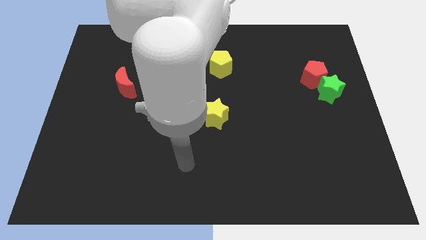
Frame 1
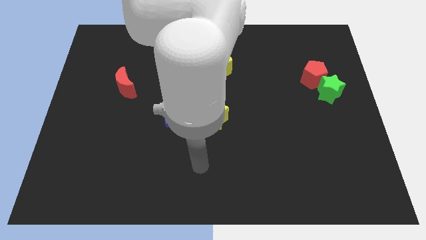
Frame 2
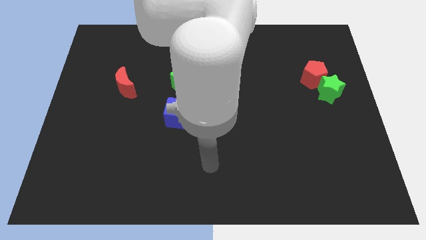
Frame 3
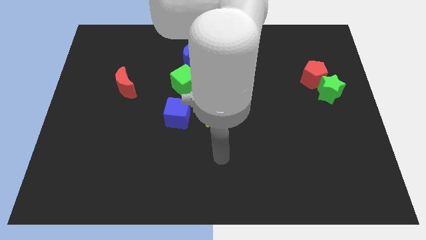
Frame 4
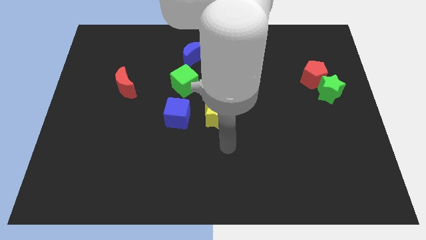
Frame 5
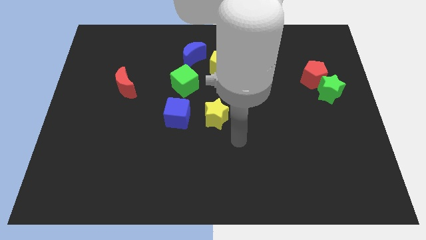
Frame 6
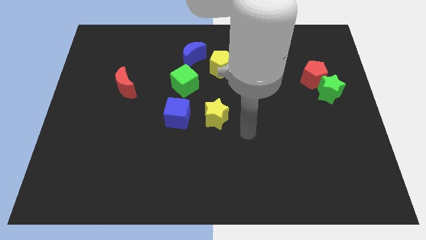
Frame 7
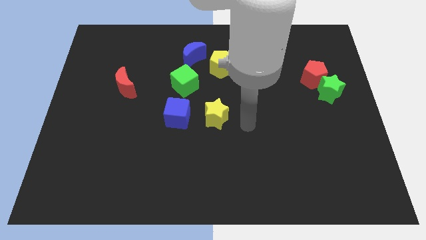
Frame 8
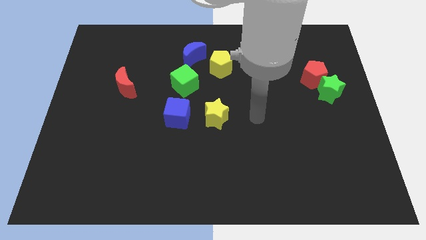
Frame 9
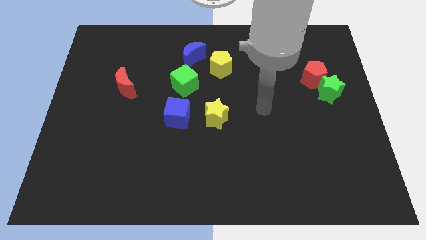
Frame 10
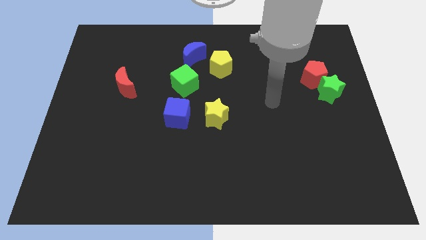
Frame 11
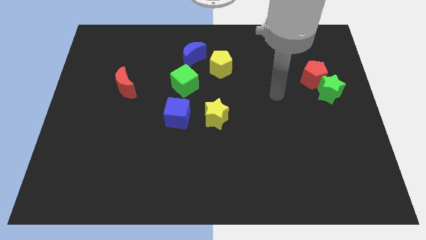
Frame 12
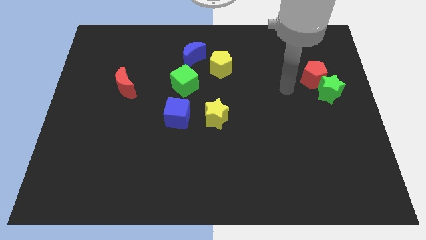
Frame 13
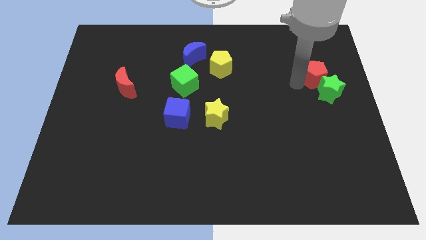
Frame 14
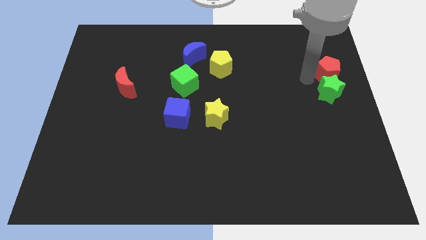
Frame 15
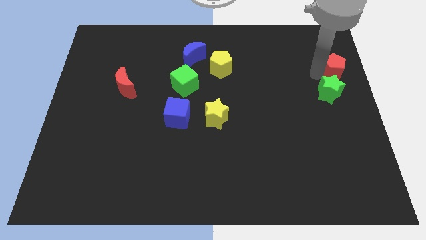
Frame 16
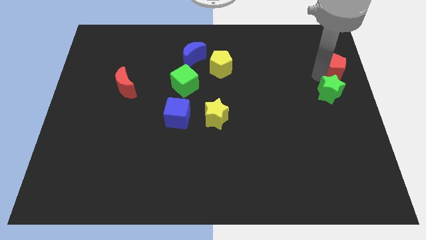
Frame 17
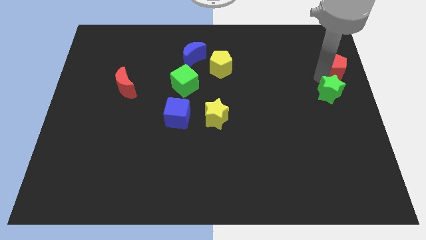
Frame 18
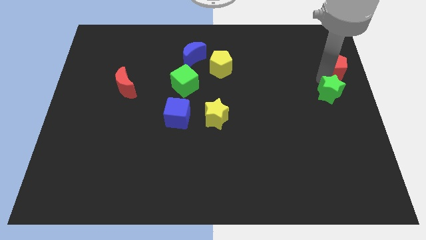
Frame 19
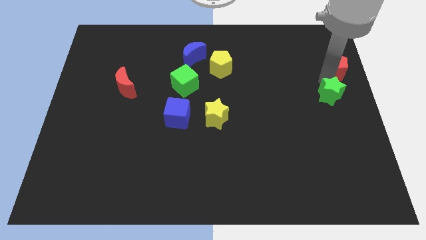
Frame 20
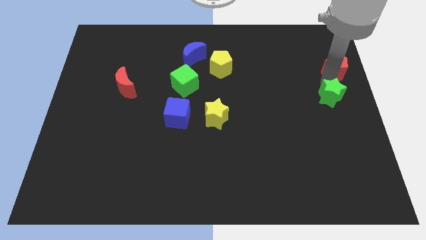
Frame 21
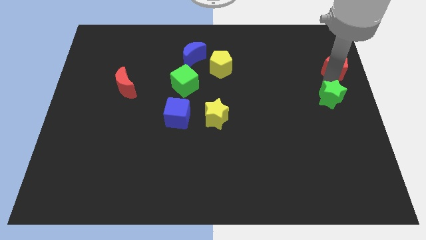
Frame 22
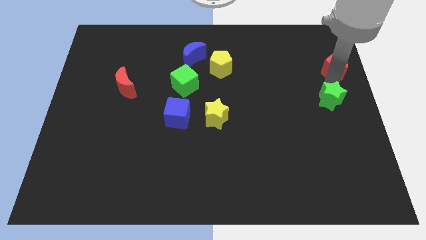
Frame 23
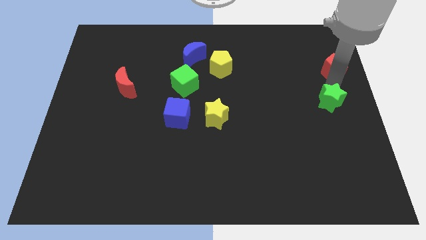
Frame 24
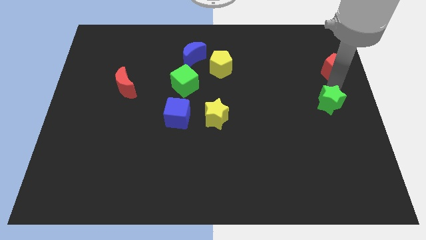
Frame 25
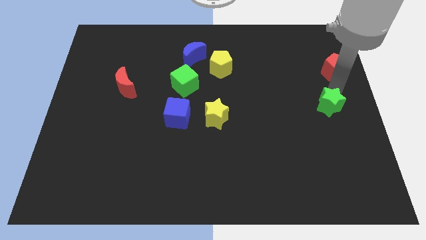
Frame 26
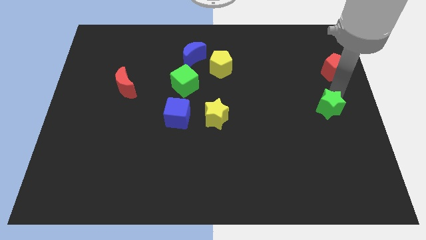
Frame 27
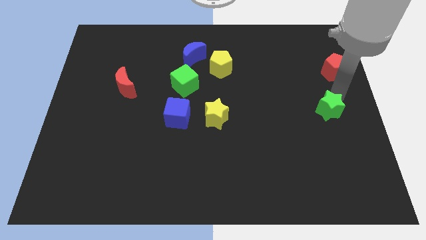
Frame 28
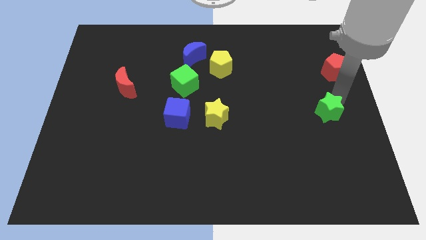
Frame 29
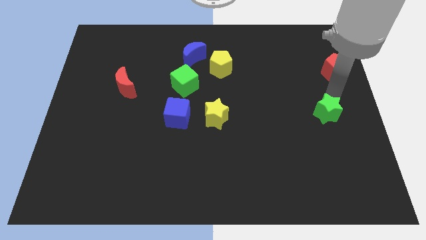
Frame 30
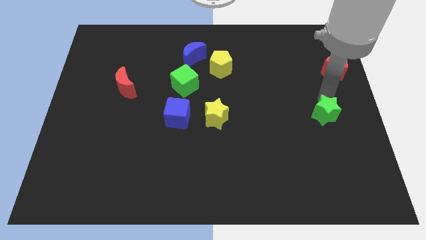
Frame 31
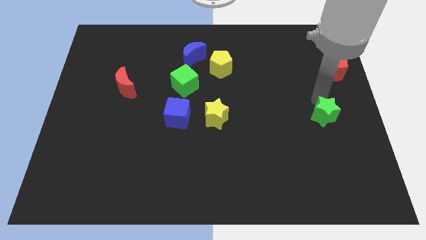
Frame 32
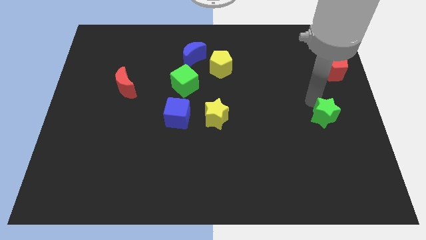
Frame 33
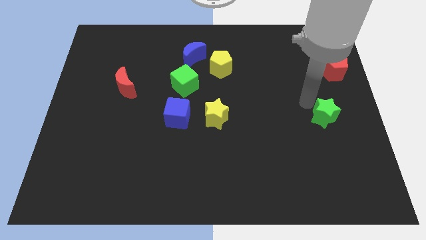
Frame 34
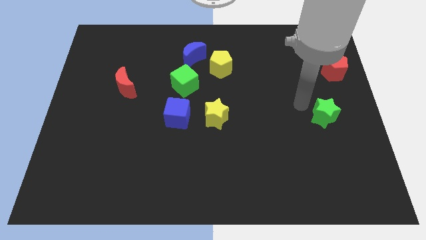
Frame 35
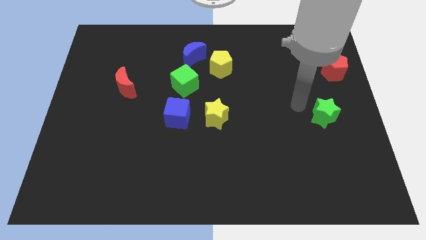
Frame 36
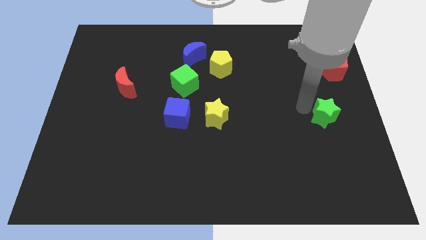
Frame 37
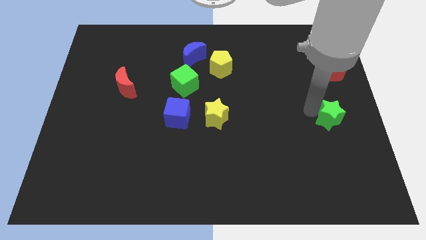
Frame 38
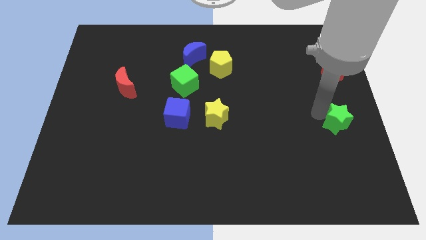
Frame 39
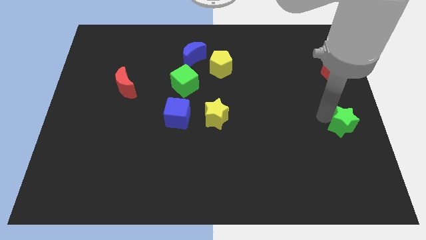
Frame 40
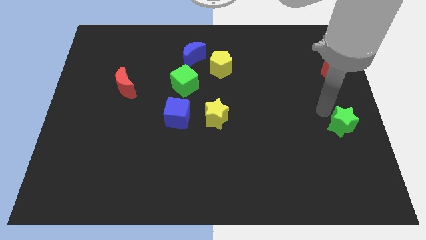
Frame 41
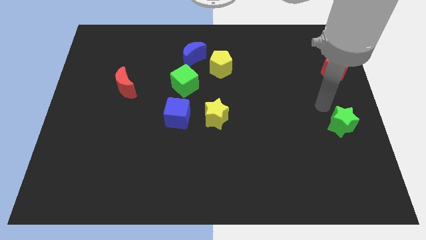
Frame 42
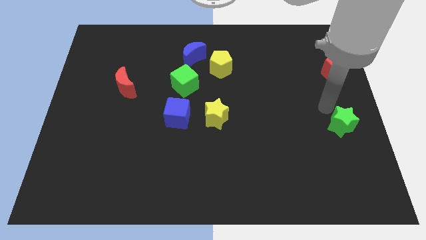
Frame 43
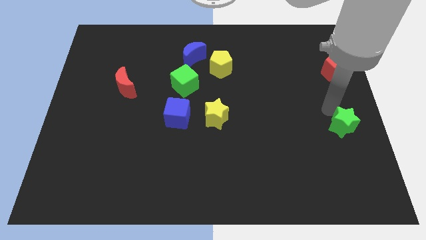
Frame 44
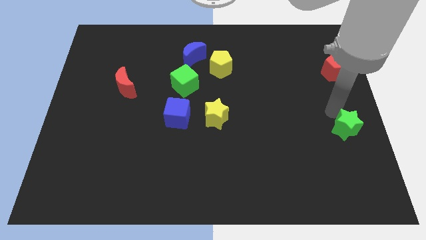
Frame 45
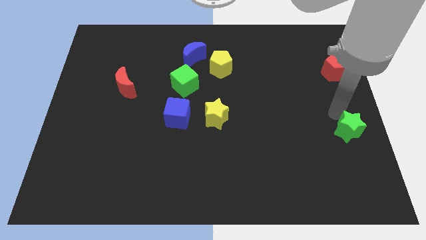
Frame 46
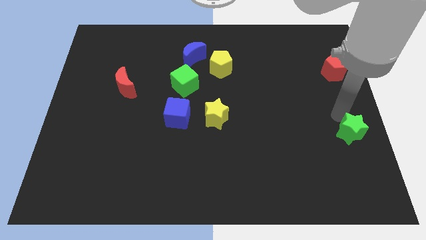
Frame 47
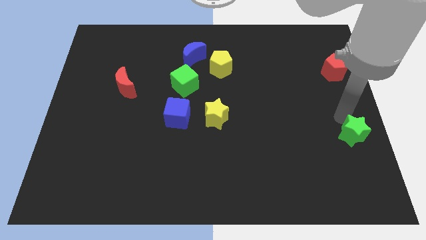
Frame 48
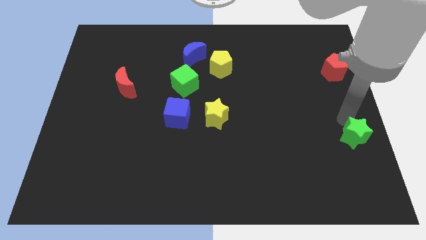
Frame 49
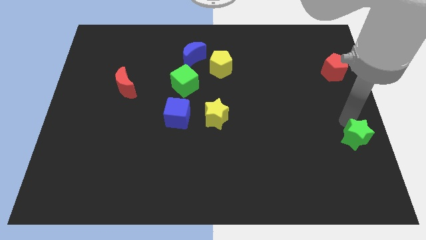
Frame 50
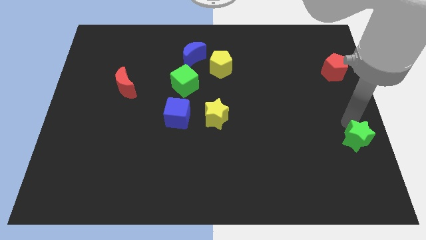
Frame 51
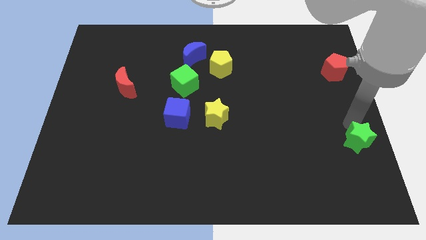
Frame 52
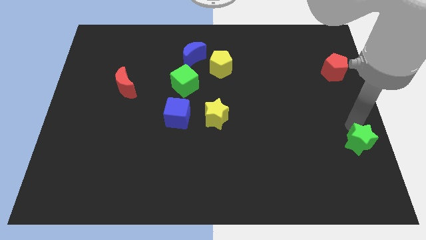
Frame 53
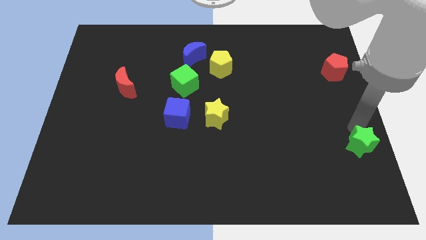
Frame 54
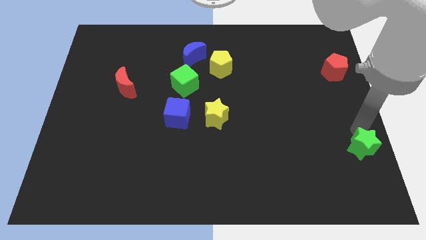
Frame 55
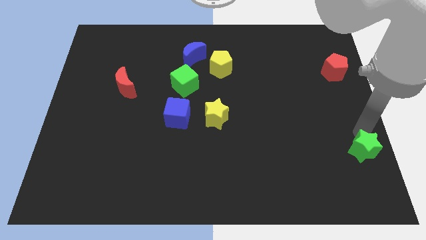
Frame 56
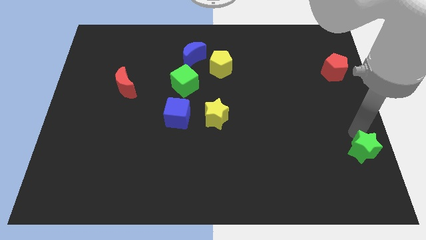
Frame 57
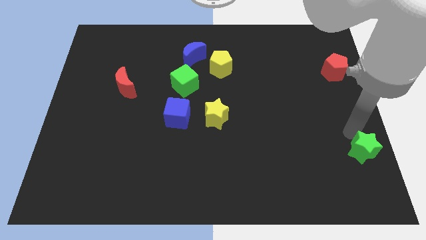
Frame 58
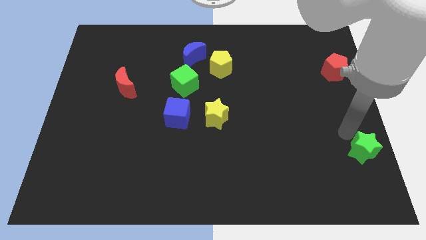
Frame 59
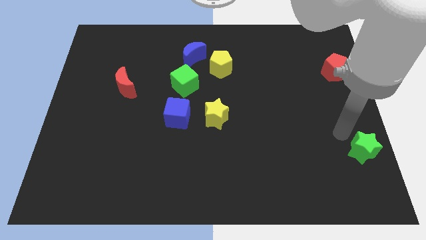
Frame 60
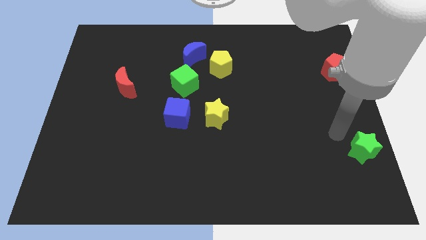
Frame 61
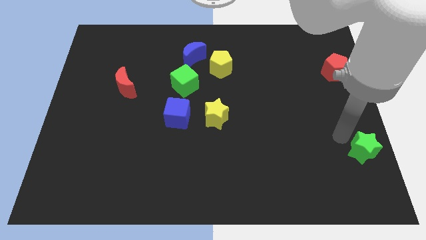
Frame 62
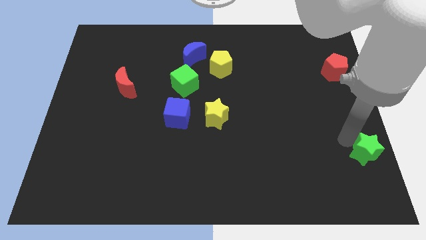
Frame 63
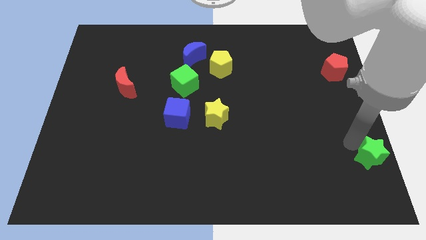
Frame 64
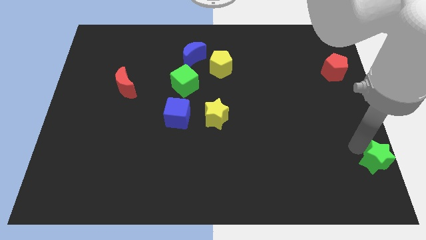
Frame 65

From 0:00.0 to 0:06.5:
move the green star to the lower right corner

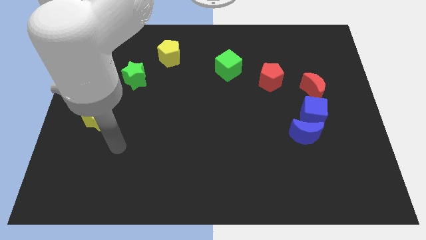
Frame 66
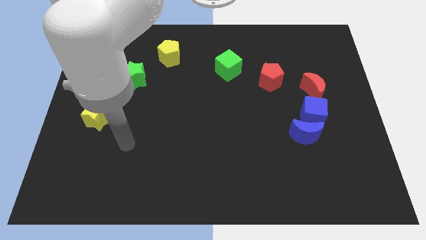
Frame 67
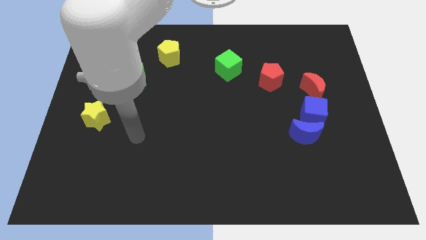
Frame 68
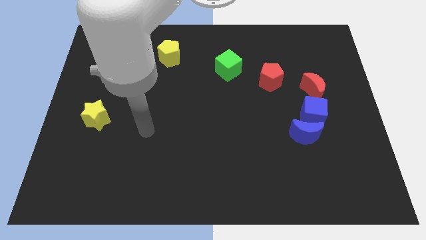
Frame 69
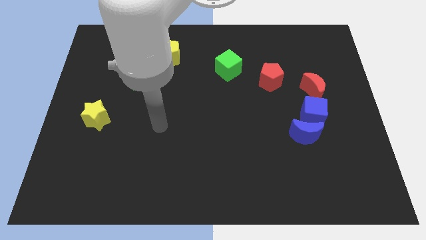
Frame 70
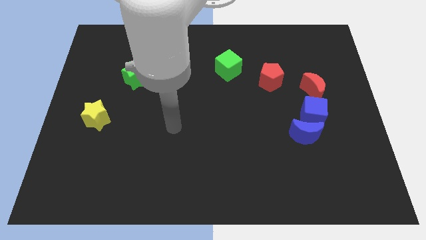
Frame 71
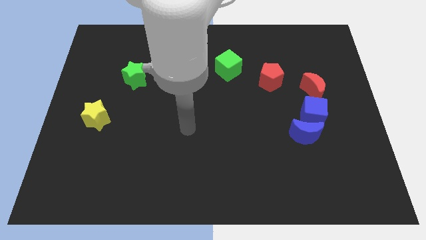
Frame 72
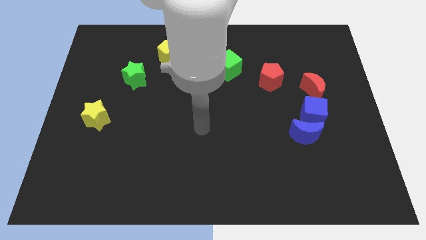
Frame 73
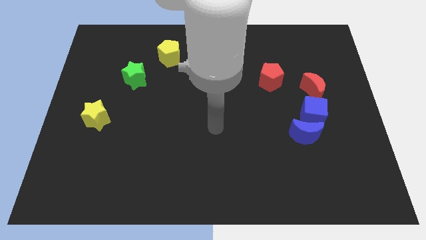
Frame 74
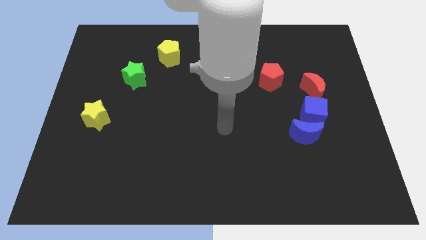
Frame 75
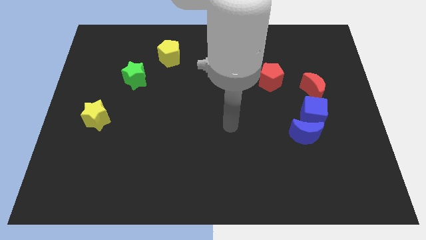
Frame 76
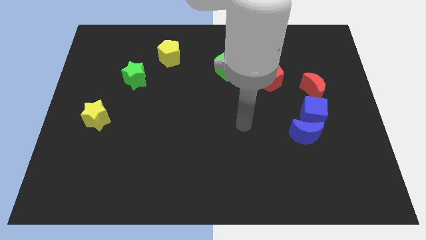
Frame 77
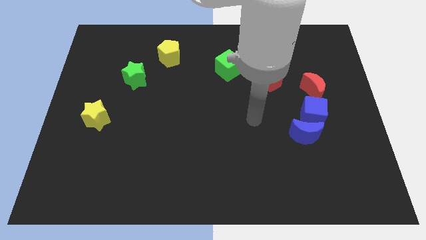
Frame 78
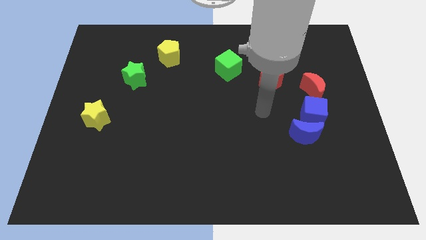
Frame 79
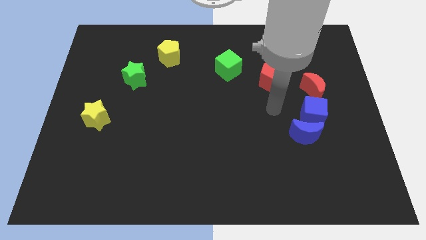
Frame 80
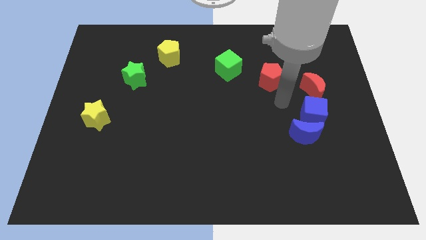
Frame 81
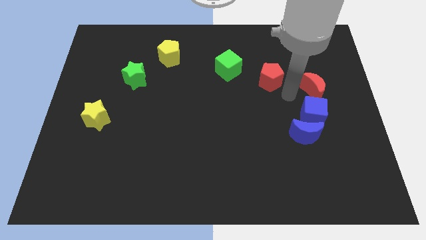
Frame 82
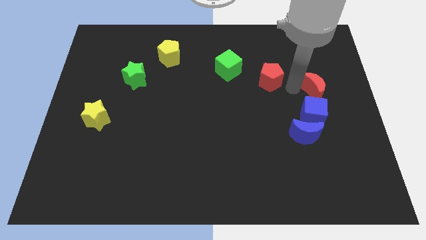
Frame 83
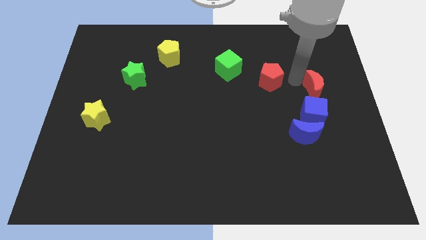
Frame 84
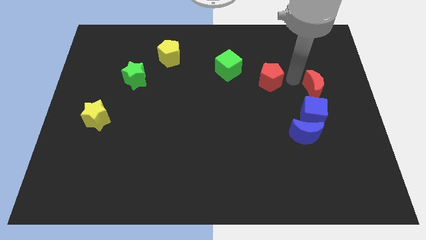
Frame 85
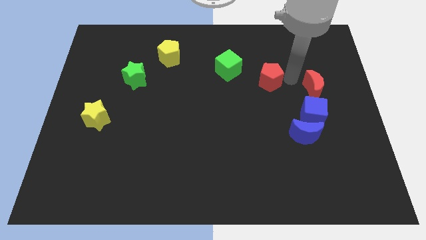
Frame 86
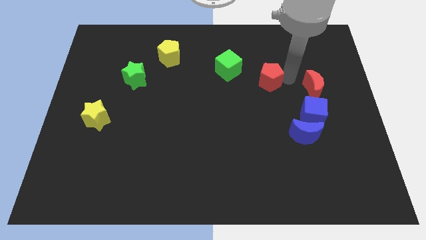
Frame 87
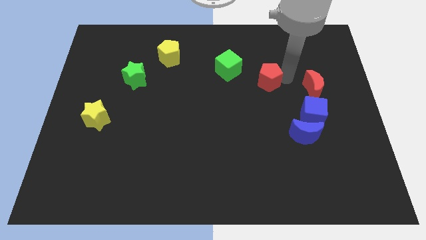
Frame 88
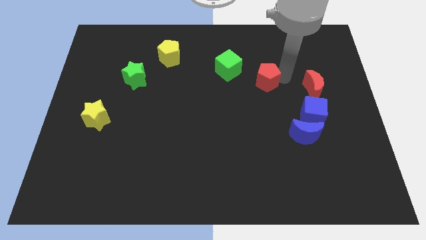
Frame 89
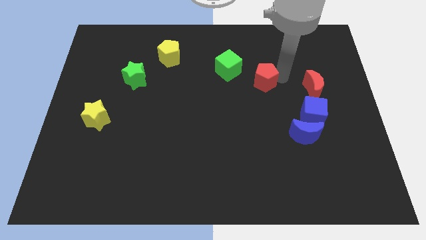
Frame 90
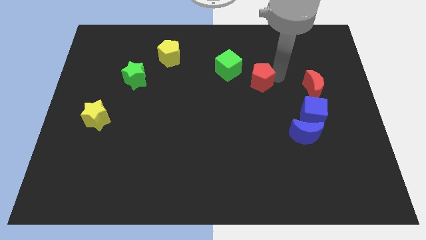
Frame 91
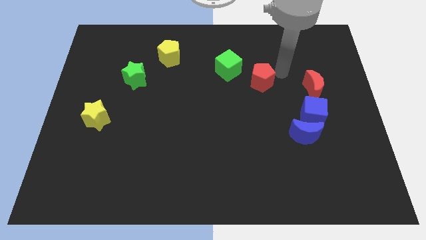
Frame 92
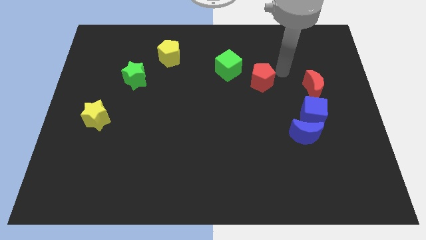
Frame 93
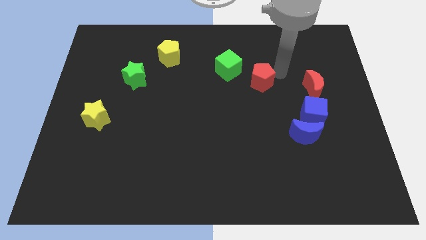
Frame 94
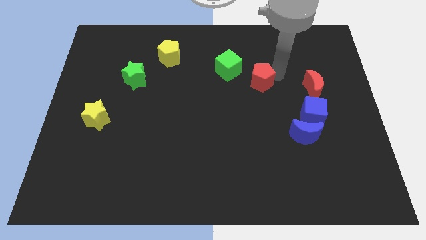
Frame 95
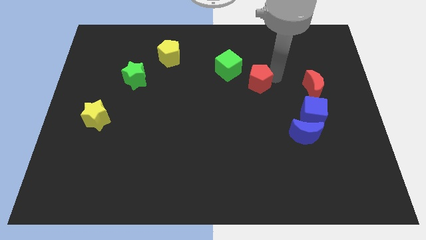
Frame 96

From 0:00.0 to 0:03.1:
slide the red pentagon to the middle of the board
